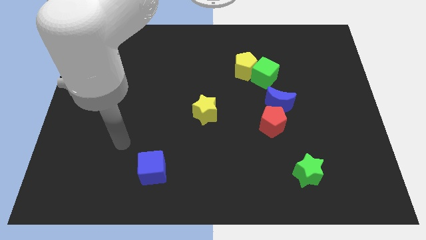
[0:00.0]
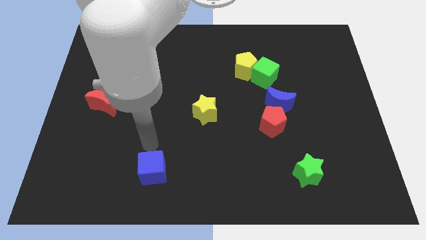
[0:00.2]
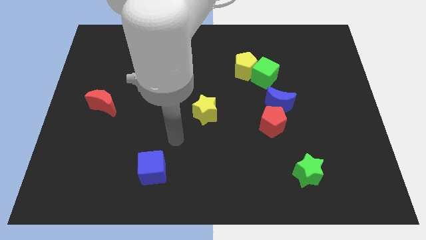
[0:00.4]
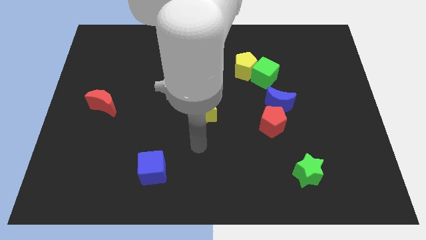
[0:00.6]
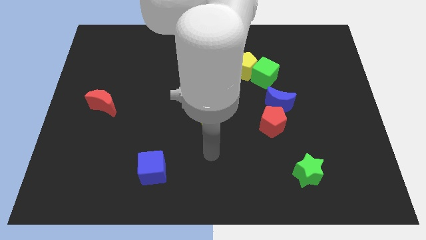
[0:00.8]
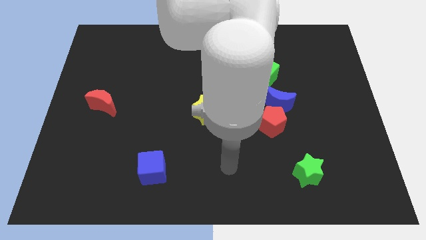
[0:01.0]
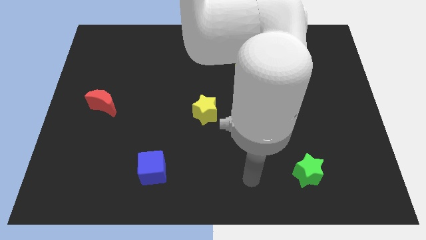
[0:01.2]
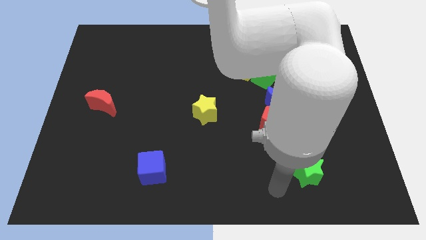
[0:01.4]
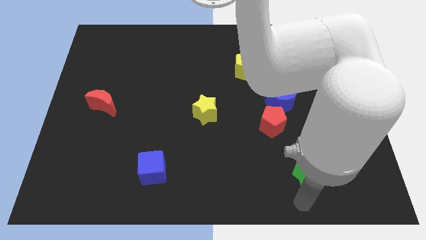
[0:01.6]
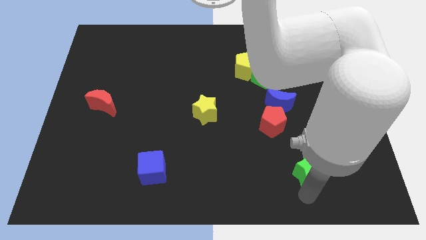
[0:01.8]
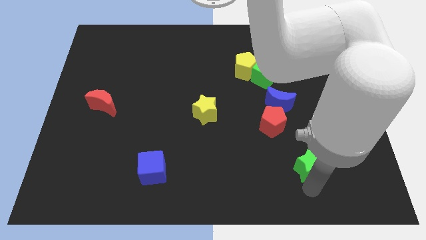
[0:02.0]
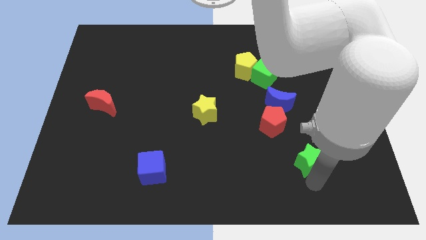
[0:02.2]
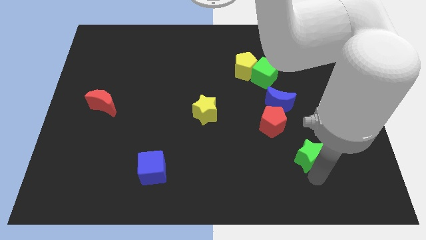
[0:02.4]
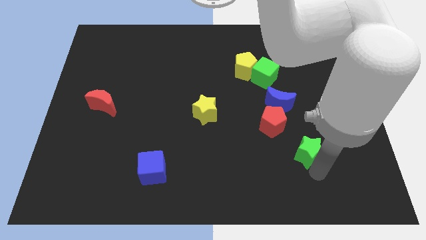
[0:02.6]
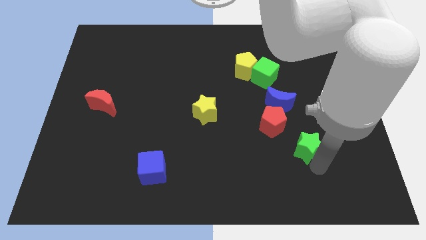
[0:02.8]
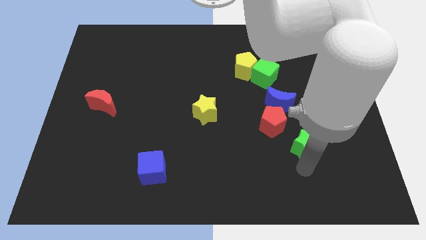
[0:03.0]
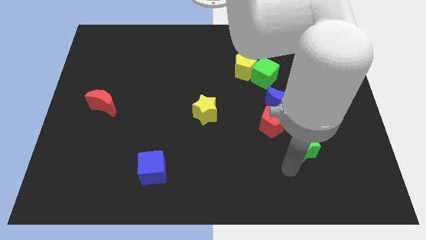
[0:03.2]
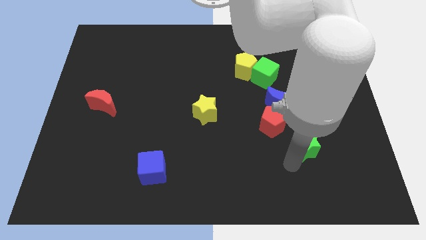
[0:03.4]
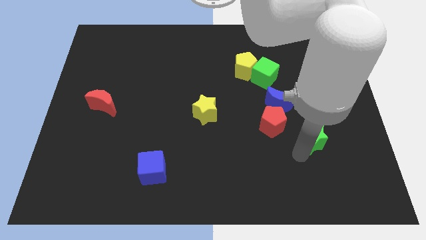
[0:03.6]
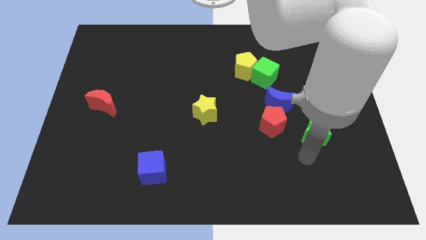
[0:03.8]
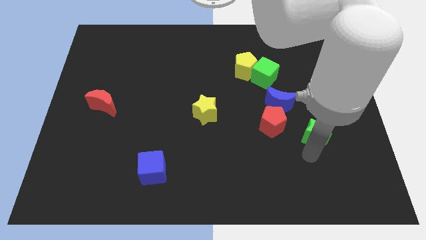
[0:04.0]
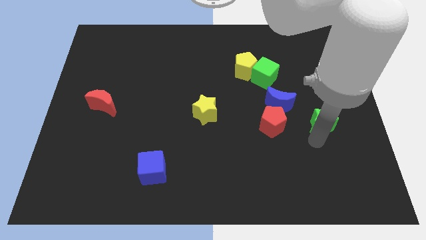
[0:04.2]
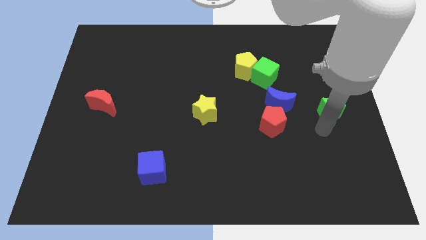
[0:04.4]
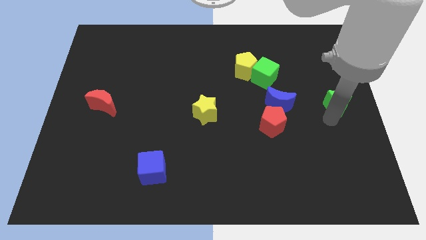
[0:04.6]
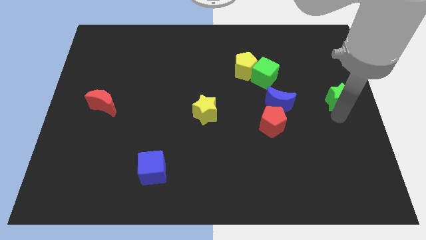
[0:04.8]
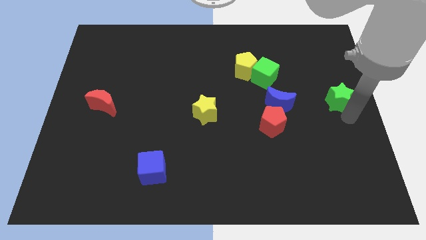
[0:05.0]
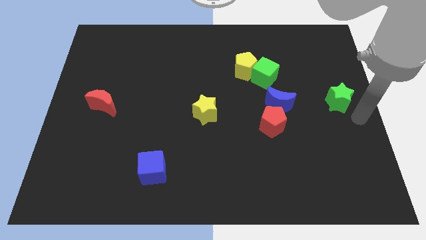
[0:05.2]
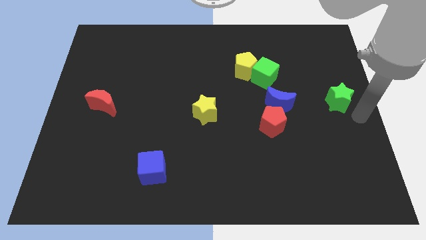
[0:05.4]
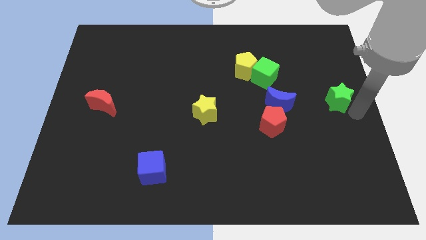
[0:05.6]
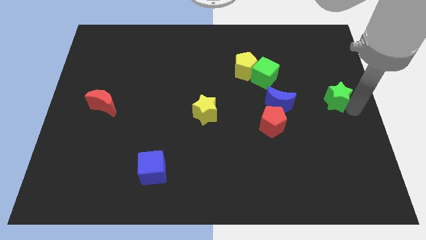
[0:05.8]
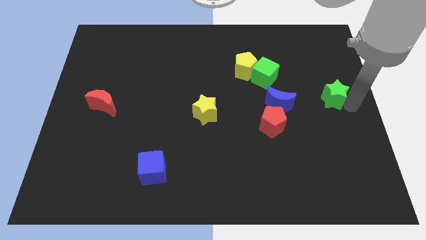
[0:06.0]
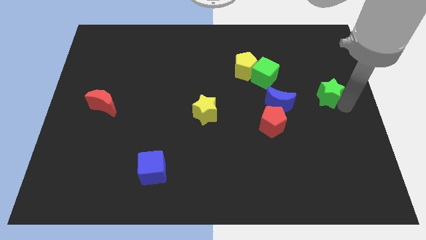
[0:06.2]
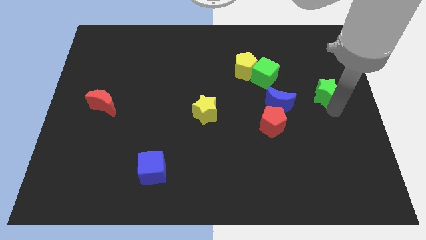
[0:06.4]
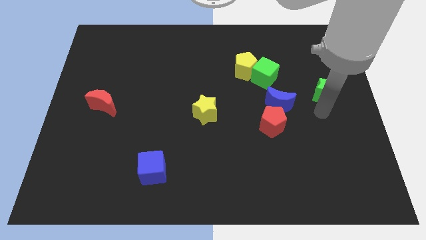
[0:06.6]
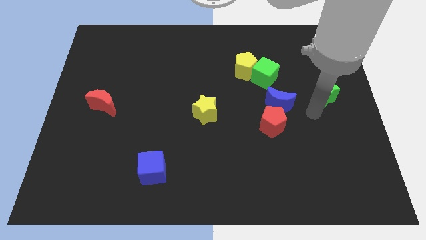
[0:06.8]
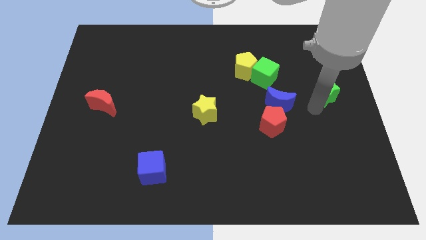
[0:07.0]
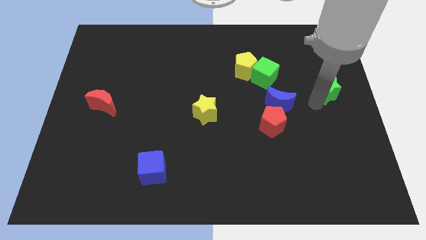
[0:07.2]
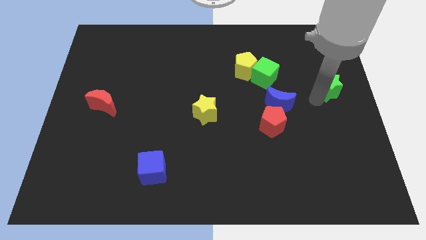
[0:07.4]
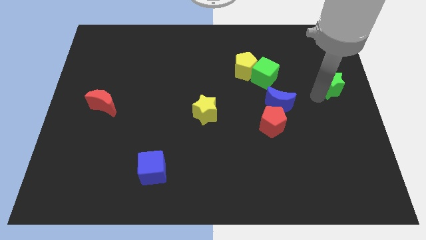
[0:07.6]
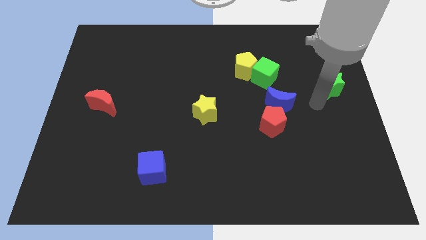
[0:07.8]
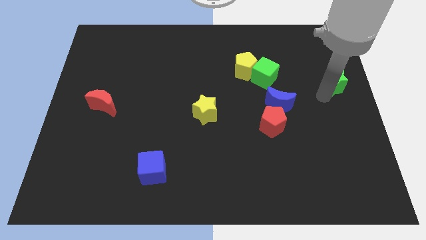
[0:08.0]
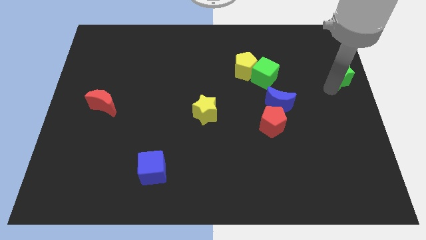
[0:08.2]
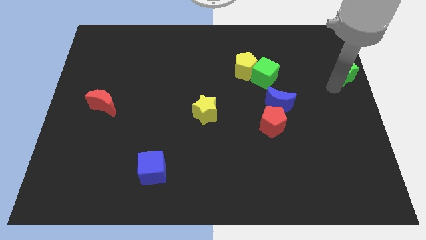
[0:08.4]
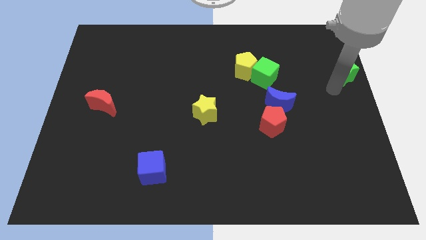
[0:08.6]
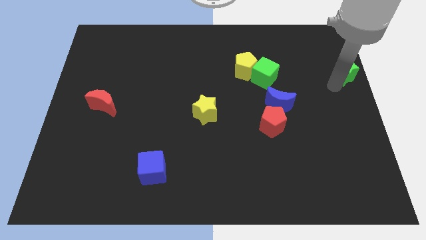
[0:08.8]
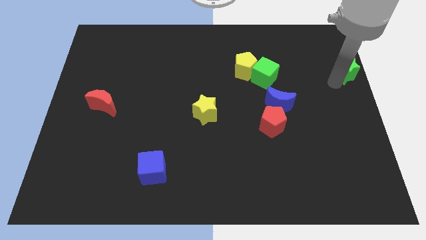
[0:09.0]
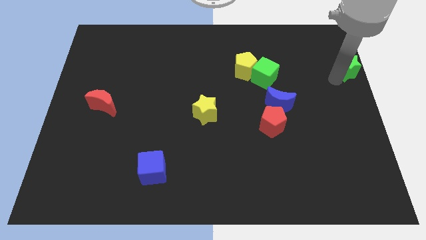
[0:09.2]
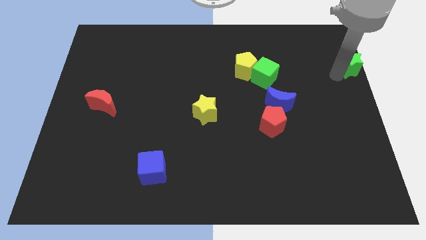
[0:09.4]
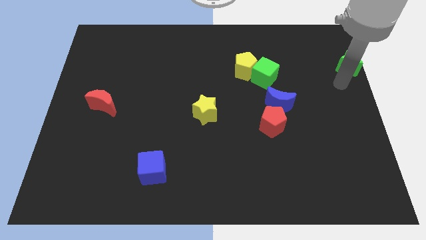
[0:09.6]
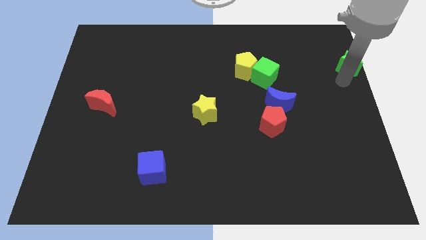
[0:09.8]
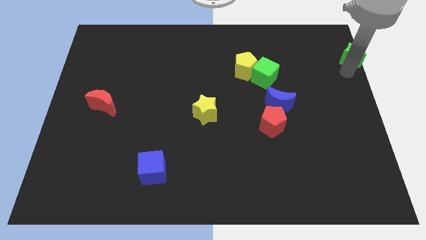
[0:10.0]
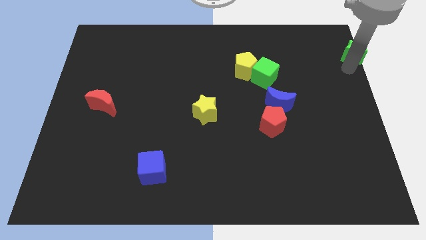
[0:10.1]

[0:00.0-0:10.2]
slide the green star to the top right of the board

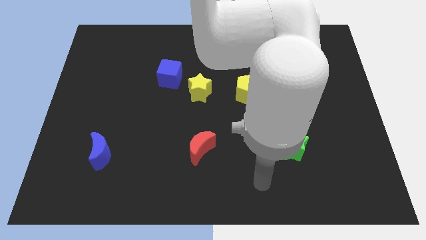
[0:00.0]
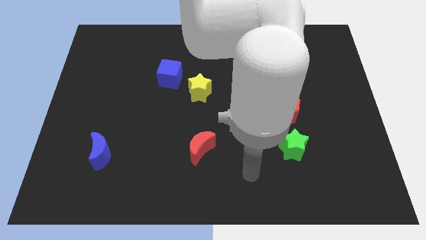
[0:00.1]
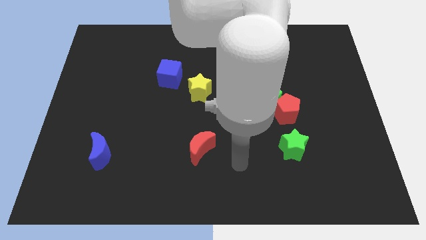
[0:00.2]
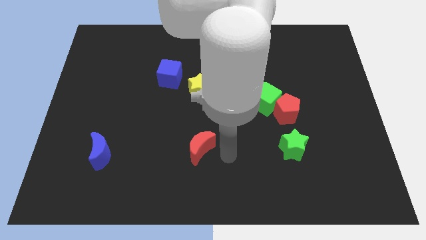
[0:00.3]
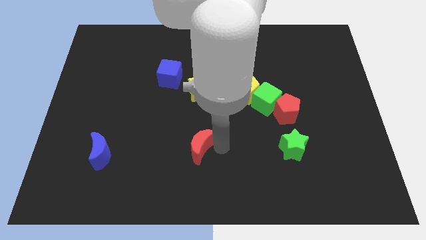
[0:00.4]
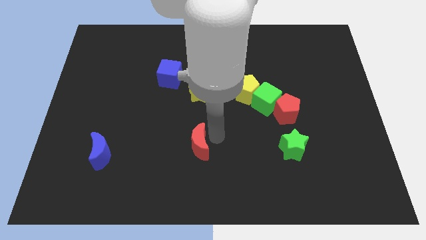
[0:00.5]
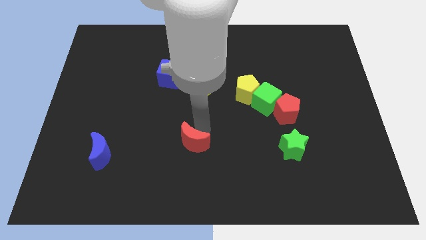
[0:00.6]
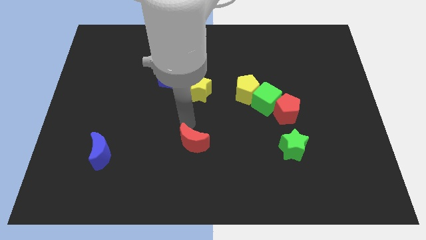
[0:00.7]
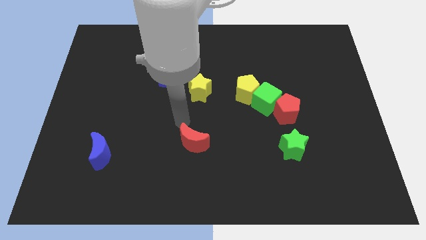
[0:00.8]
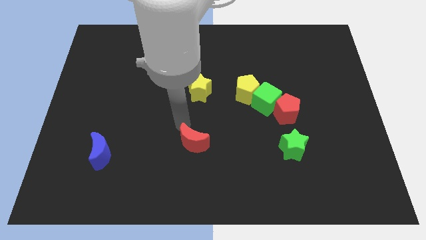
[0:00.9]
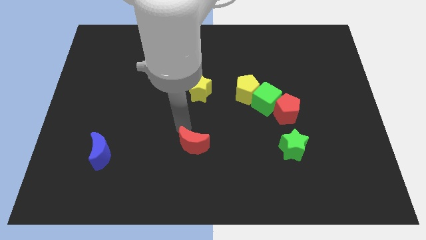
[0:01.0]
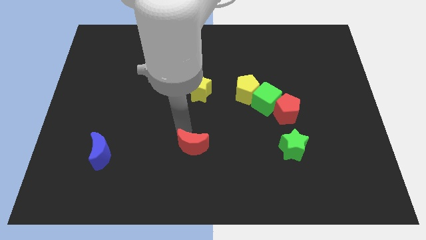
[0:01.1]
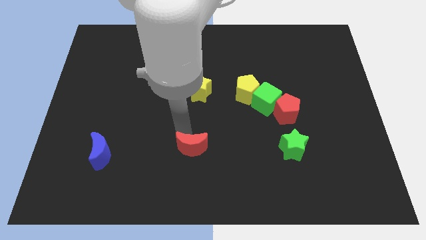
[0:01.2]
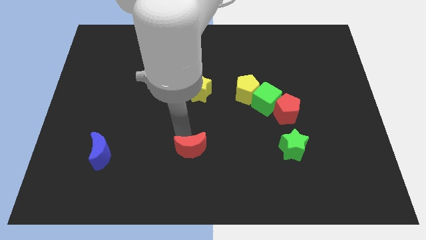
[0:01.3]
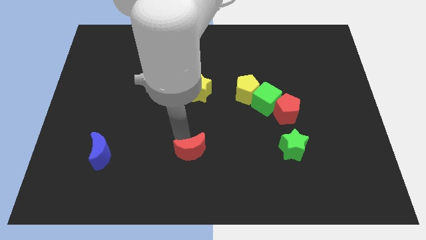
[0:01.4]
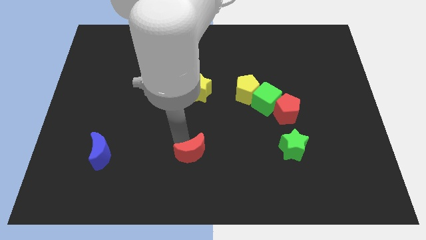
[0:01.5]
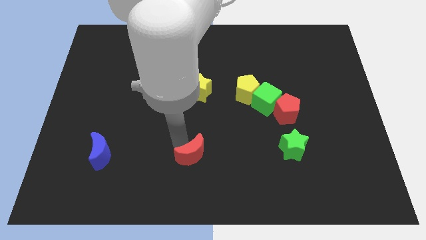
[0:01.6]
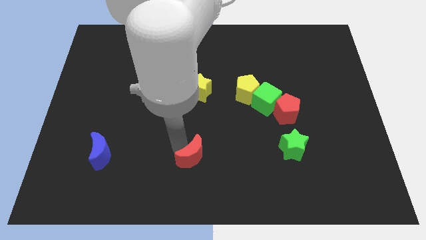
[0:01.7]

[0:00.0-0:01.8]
move the red moon to the bottom side
